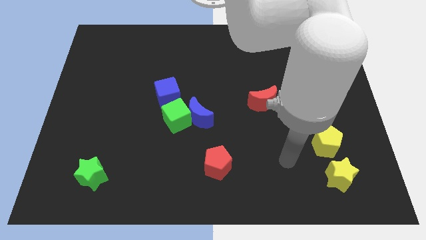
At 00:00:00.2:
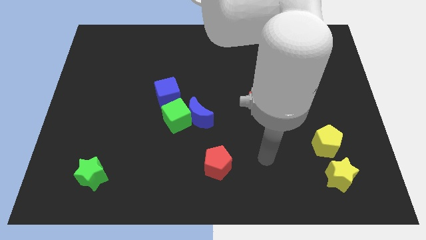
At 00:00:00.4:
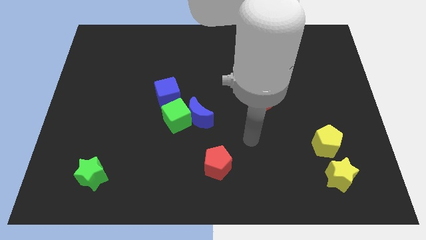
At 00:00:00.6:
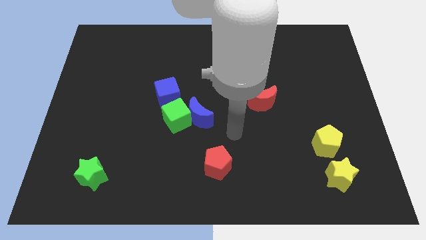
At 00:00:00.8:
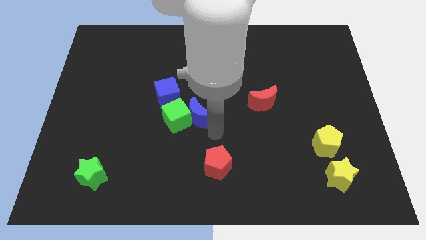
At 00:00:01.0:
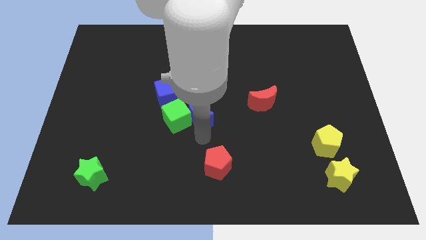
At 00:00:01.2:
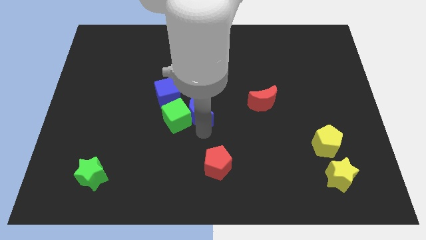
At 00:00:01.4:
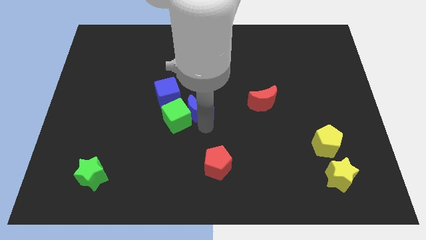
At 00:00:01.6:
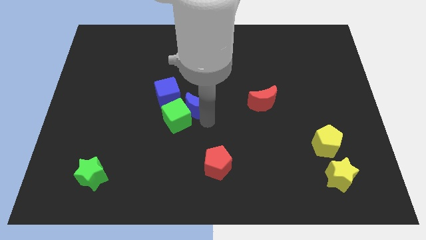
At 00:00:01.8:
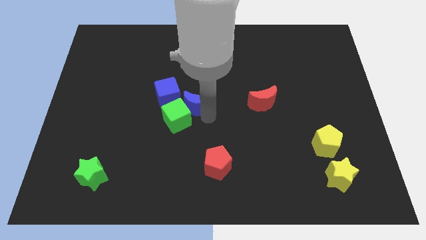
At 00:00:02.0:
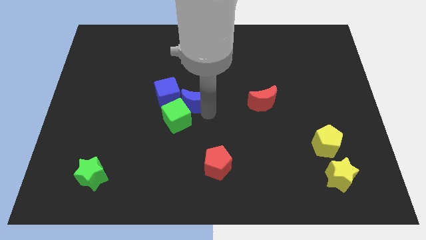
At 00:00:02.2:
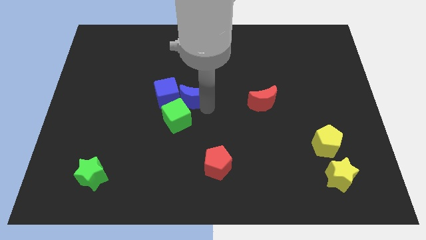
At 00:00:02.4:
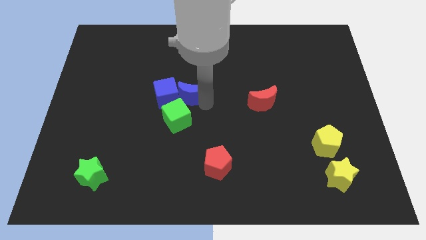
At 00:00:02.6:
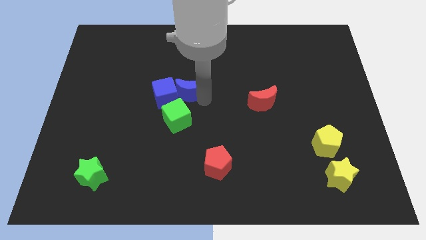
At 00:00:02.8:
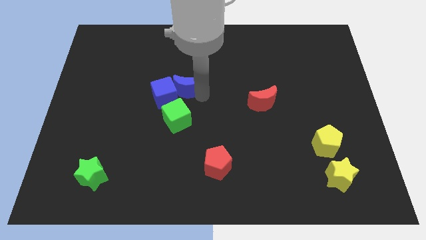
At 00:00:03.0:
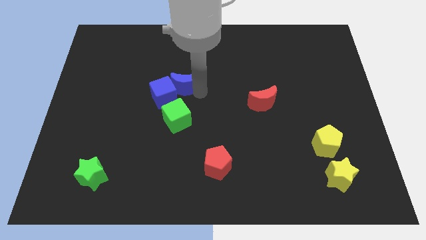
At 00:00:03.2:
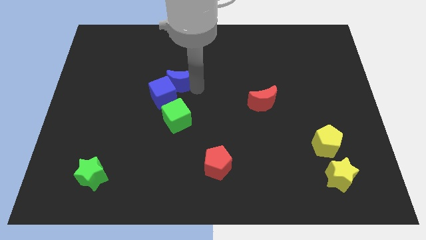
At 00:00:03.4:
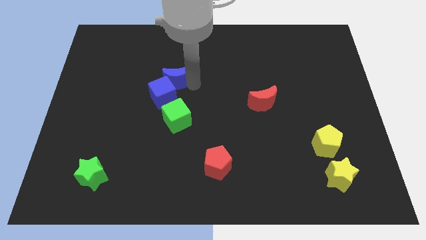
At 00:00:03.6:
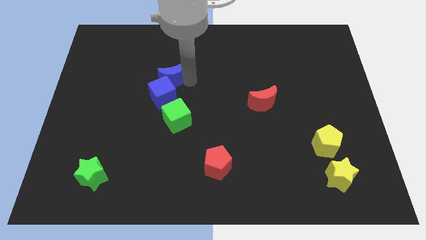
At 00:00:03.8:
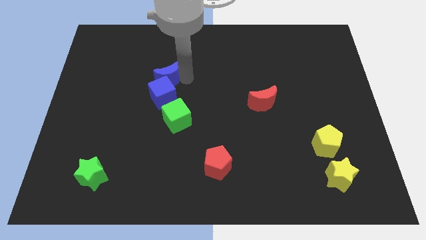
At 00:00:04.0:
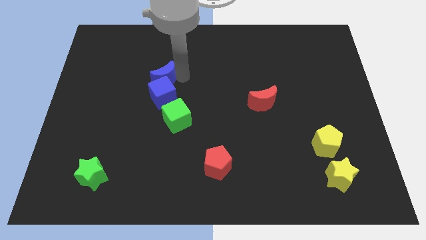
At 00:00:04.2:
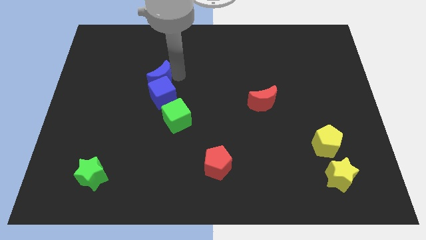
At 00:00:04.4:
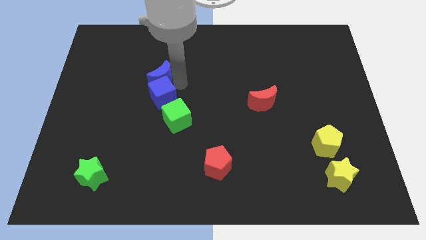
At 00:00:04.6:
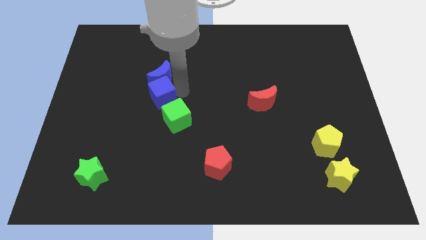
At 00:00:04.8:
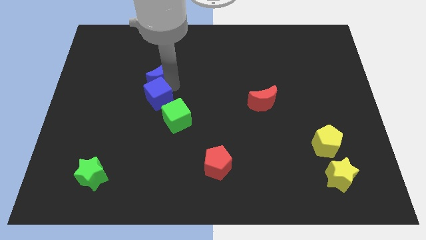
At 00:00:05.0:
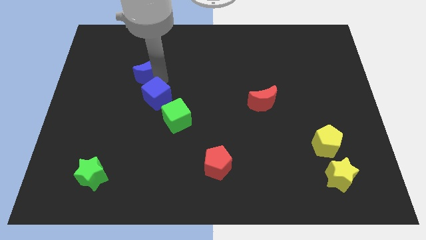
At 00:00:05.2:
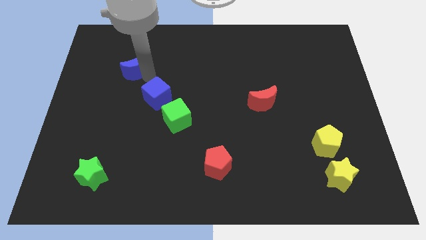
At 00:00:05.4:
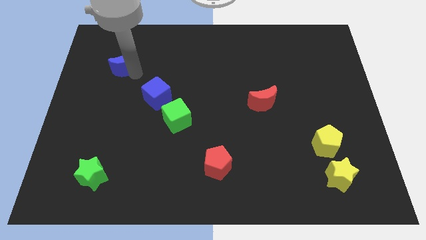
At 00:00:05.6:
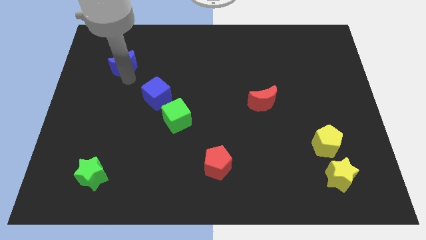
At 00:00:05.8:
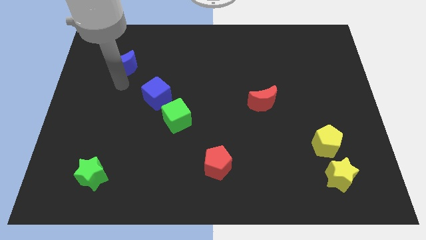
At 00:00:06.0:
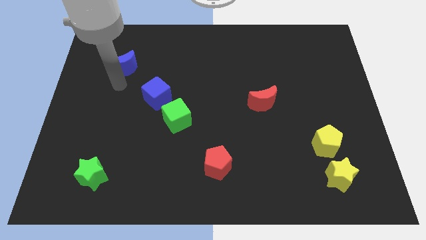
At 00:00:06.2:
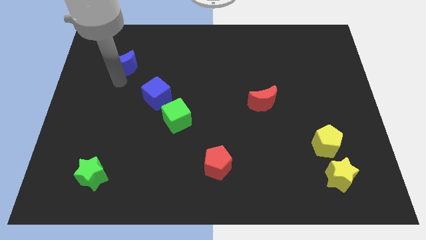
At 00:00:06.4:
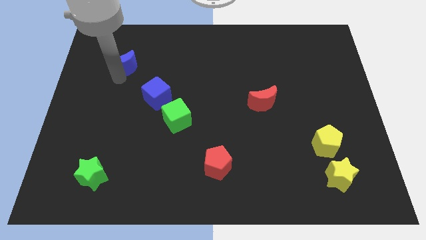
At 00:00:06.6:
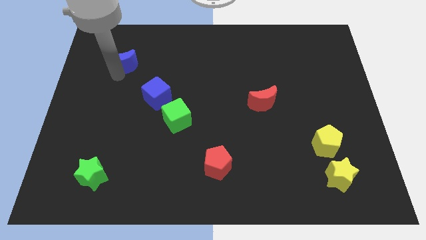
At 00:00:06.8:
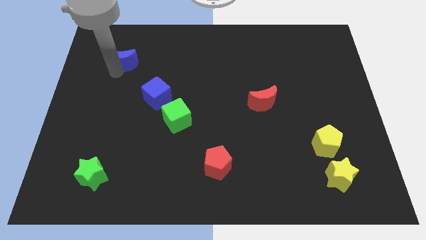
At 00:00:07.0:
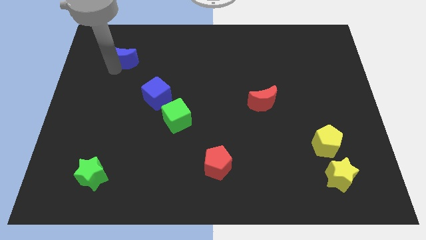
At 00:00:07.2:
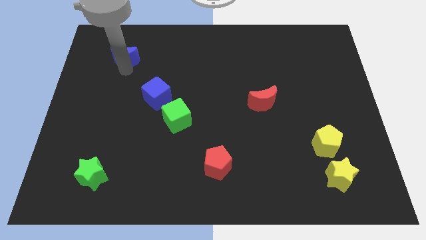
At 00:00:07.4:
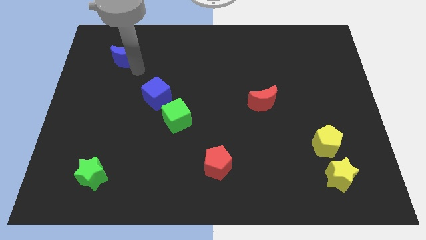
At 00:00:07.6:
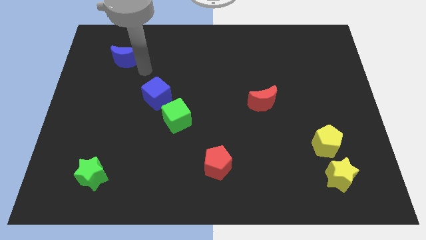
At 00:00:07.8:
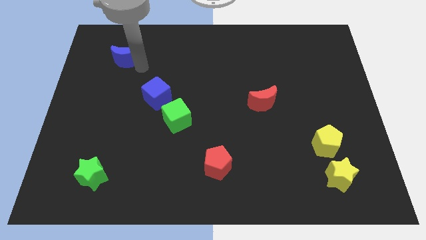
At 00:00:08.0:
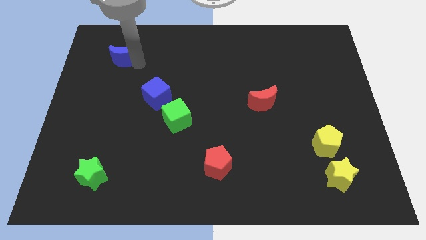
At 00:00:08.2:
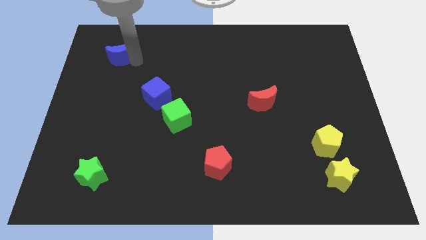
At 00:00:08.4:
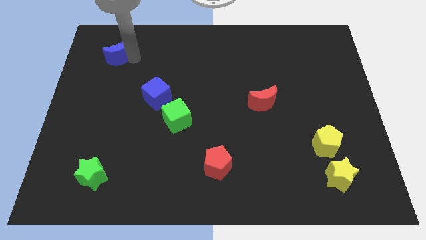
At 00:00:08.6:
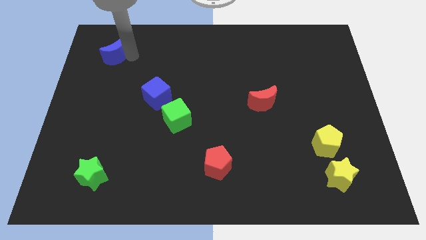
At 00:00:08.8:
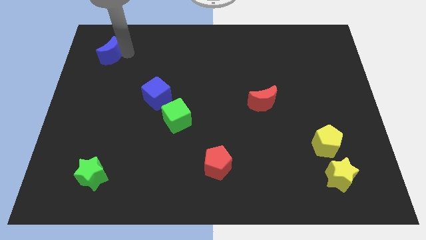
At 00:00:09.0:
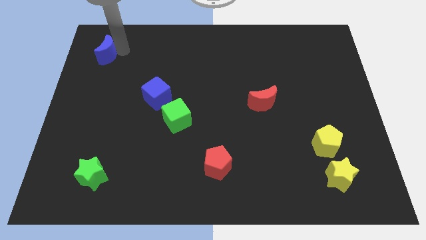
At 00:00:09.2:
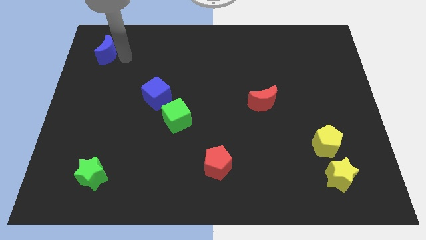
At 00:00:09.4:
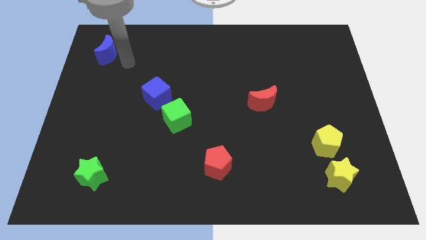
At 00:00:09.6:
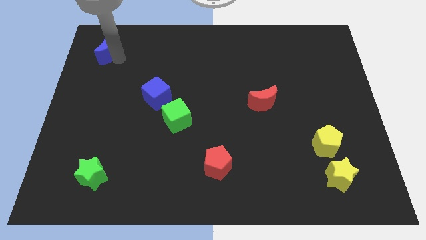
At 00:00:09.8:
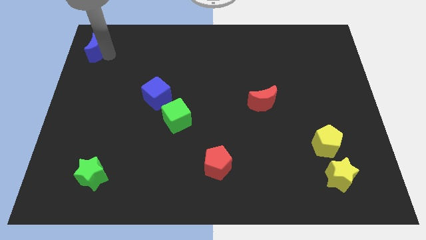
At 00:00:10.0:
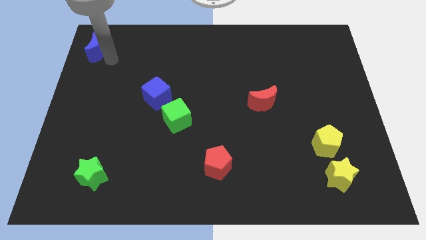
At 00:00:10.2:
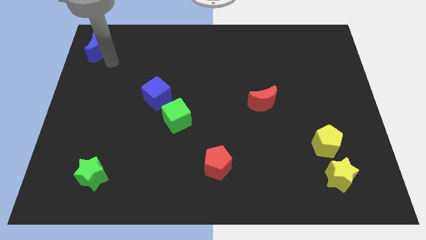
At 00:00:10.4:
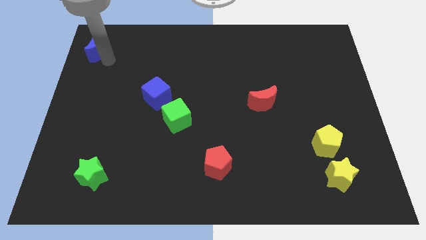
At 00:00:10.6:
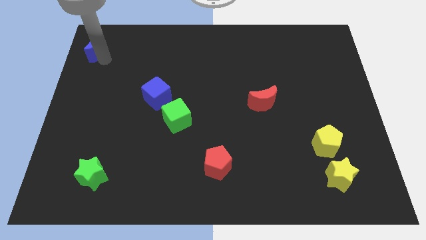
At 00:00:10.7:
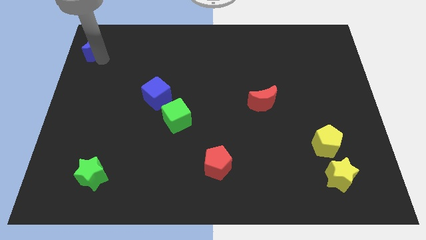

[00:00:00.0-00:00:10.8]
push the blue moon to the top left

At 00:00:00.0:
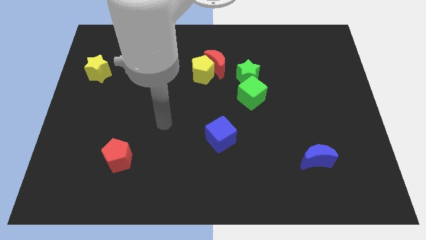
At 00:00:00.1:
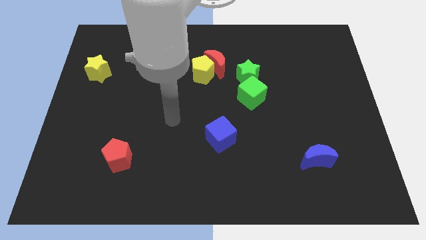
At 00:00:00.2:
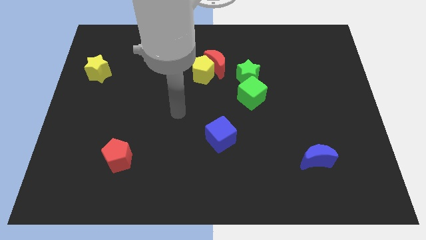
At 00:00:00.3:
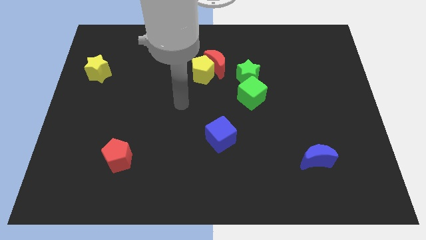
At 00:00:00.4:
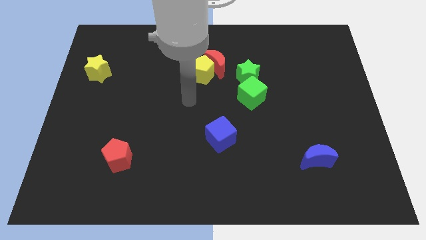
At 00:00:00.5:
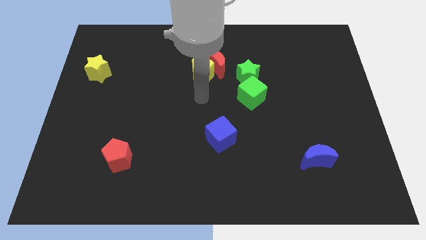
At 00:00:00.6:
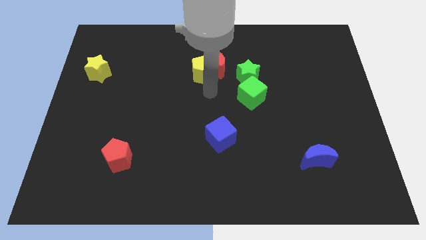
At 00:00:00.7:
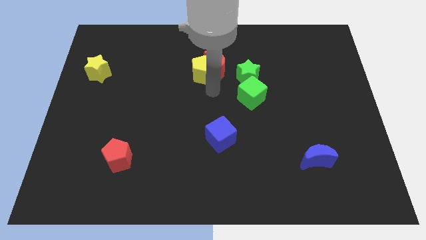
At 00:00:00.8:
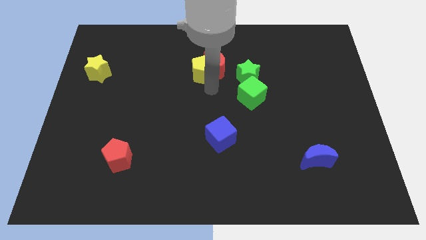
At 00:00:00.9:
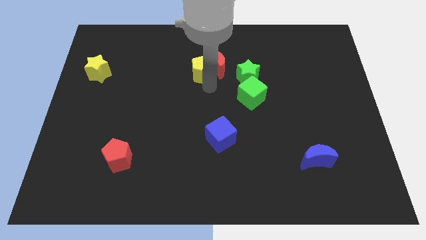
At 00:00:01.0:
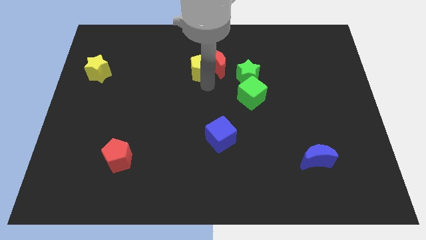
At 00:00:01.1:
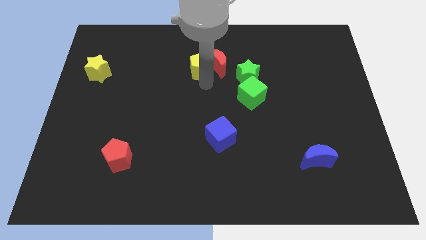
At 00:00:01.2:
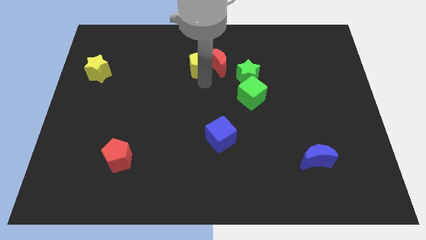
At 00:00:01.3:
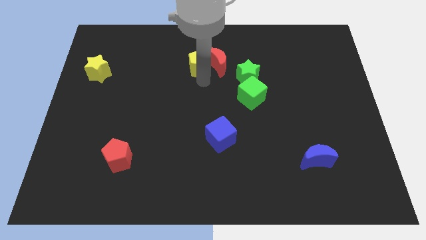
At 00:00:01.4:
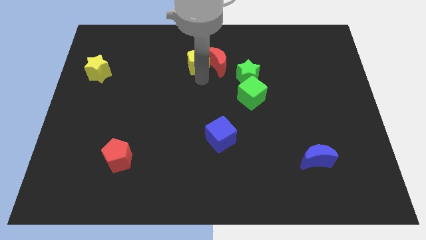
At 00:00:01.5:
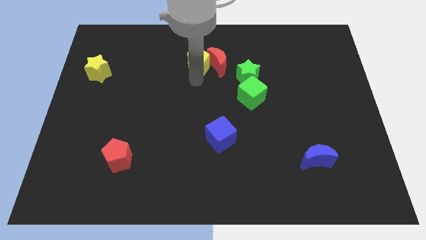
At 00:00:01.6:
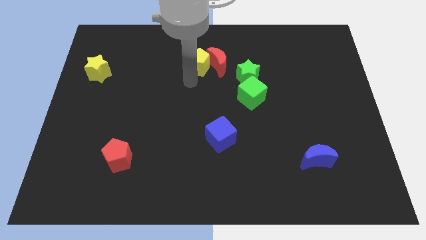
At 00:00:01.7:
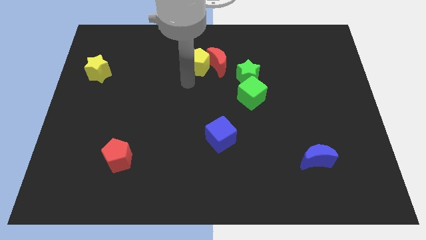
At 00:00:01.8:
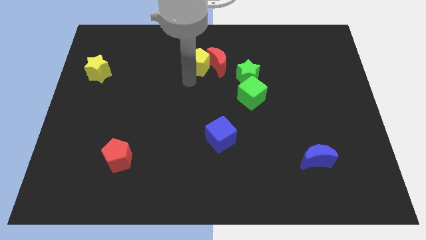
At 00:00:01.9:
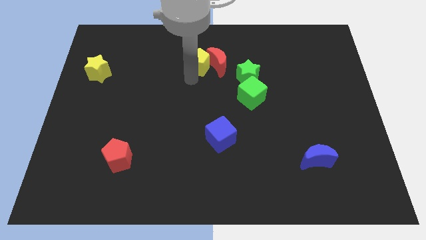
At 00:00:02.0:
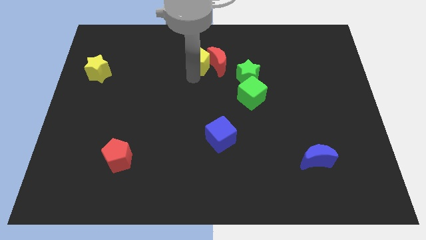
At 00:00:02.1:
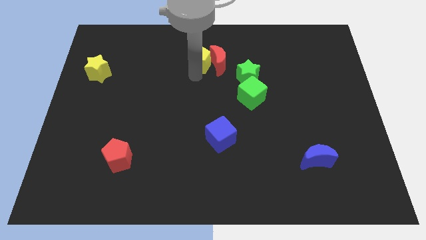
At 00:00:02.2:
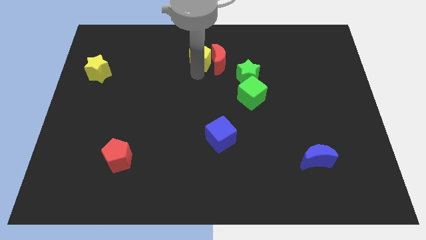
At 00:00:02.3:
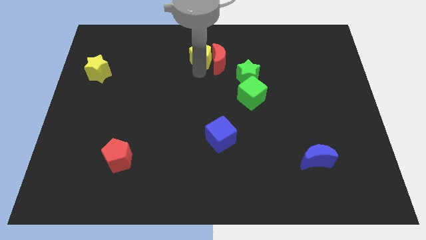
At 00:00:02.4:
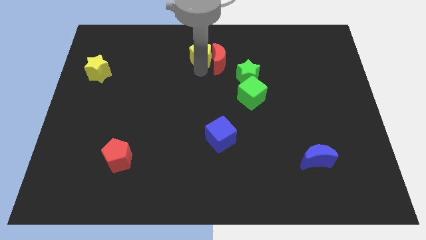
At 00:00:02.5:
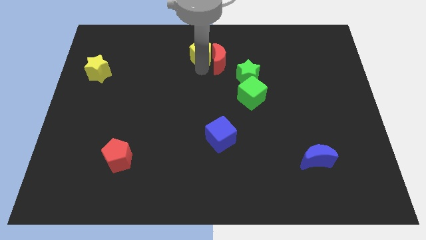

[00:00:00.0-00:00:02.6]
push the yellow pentagon to the top
